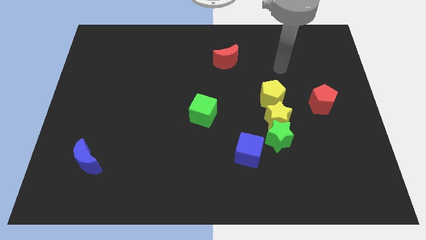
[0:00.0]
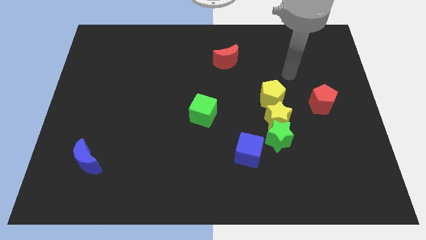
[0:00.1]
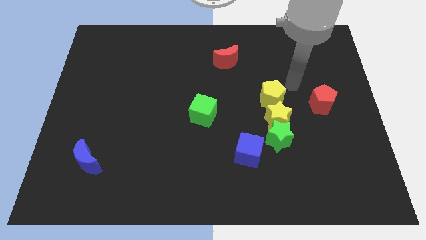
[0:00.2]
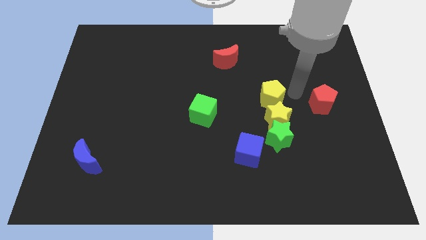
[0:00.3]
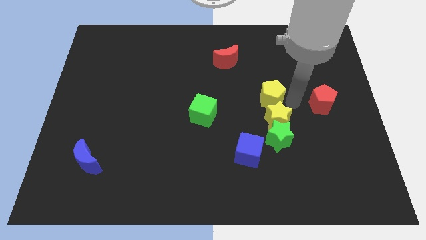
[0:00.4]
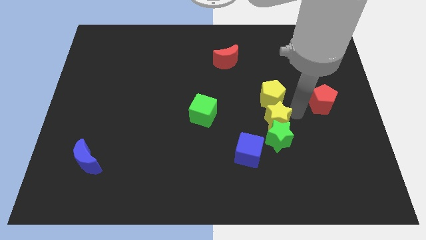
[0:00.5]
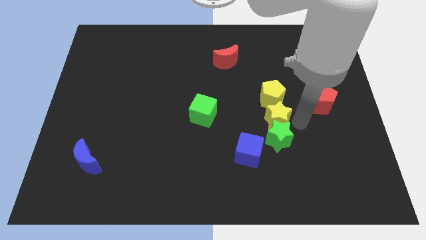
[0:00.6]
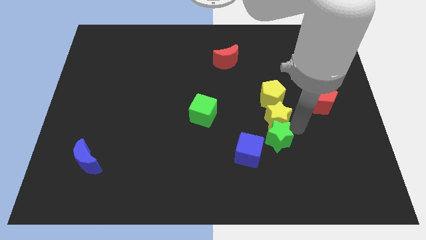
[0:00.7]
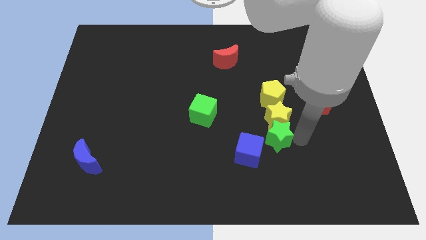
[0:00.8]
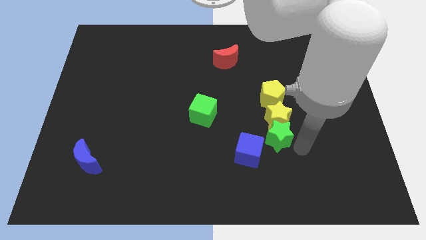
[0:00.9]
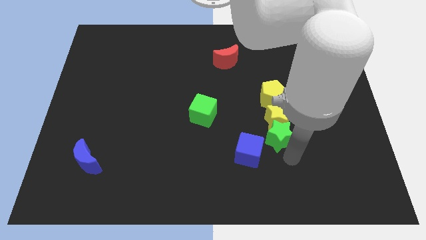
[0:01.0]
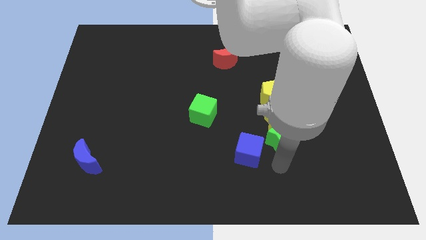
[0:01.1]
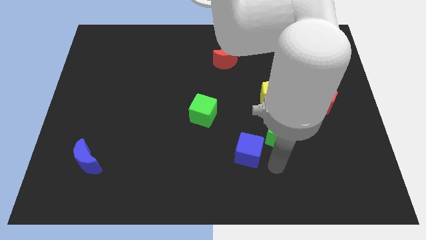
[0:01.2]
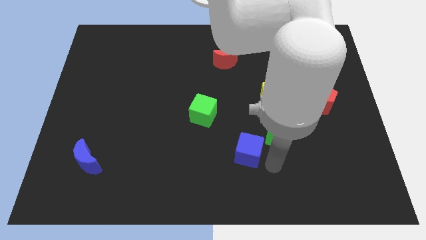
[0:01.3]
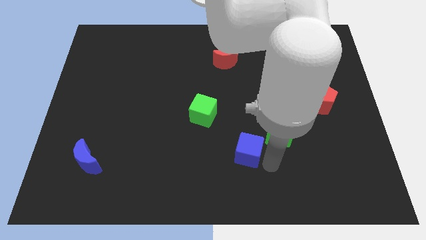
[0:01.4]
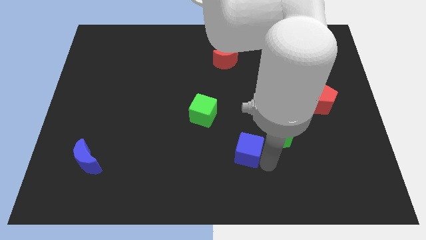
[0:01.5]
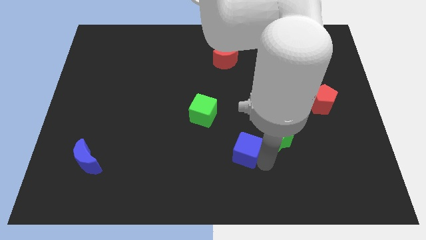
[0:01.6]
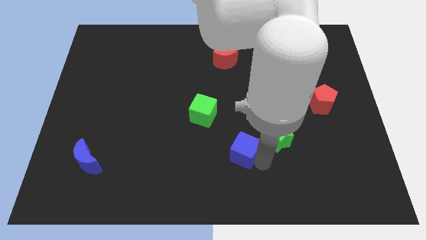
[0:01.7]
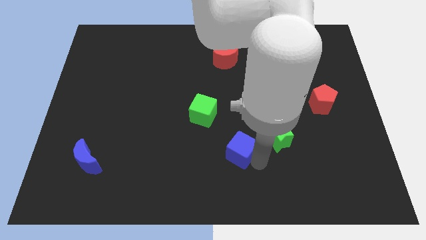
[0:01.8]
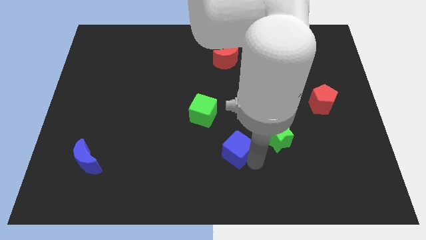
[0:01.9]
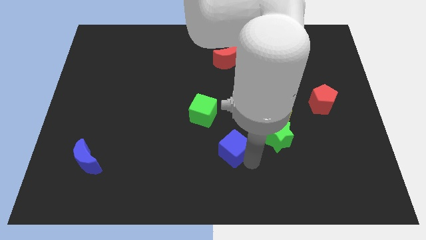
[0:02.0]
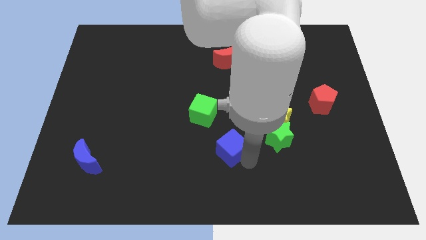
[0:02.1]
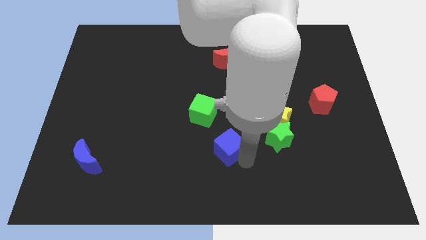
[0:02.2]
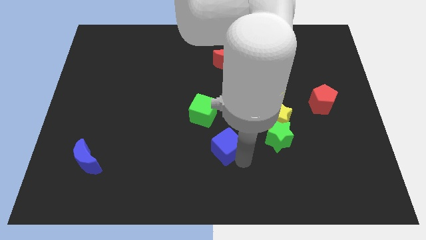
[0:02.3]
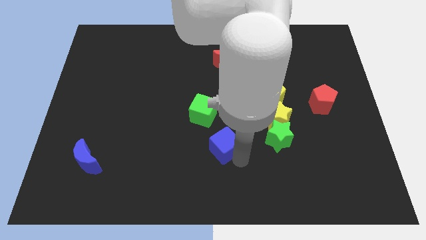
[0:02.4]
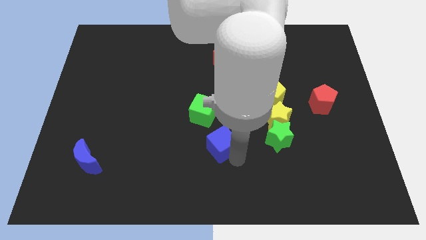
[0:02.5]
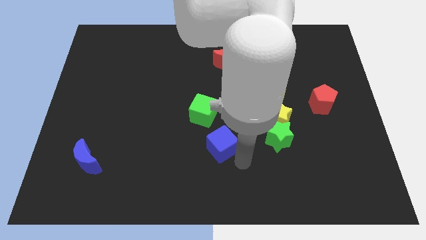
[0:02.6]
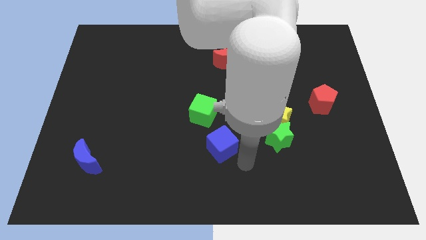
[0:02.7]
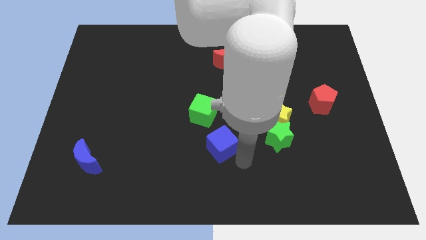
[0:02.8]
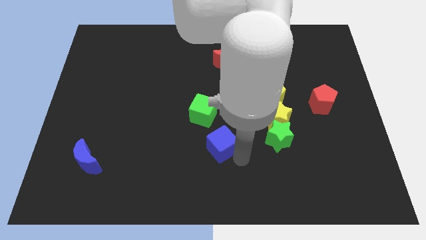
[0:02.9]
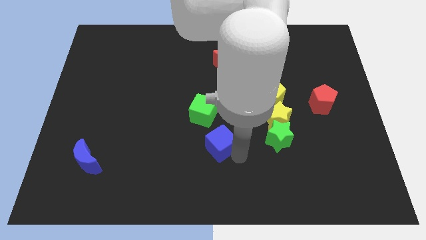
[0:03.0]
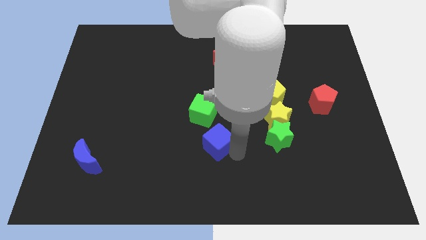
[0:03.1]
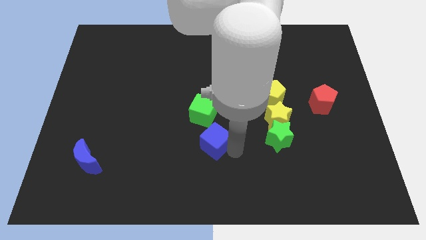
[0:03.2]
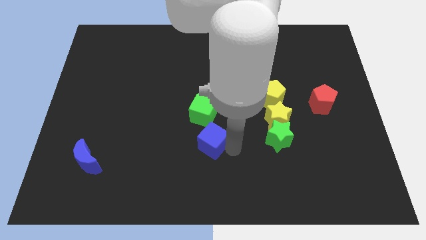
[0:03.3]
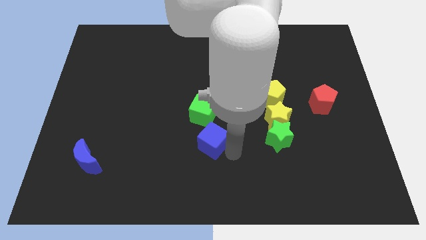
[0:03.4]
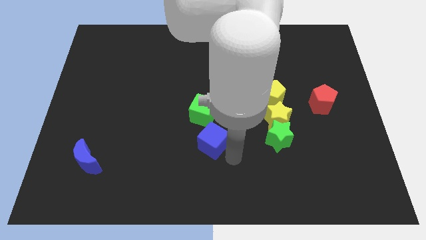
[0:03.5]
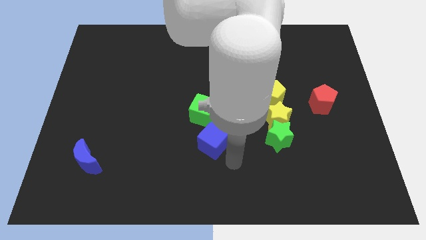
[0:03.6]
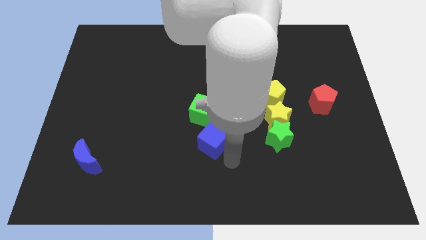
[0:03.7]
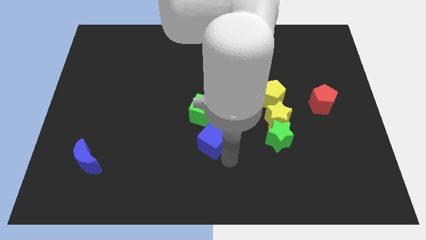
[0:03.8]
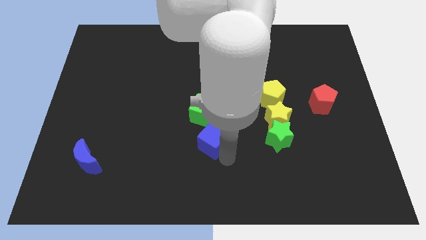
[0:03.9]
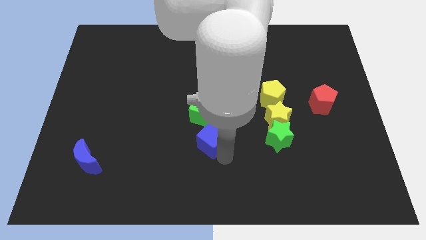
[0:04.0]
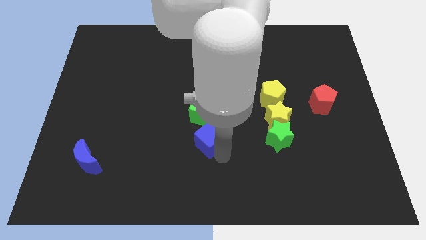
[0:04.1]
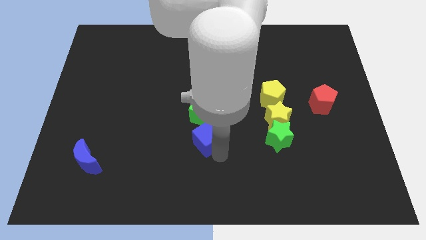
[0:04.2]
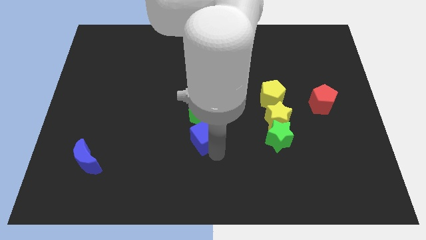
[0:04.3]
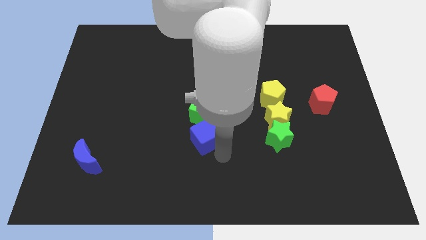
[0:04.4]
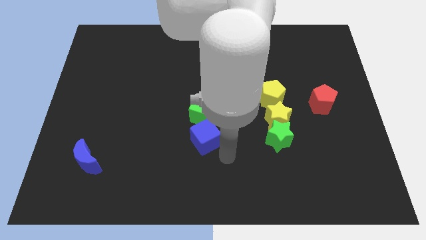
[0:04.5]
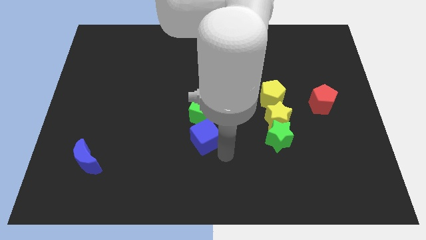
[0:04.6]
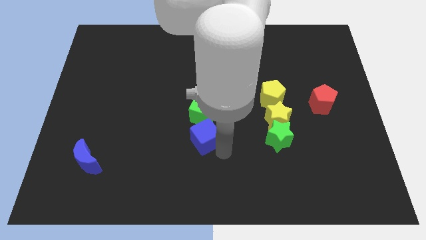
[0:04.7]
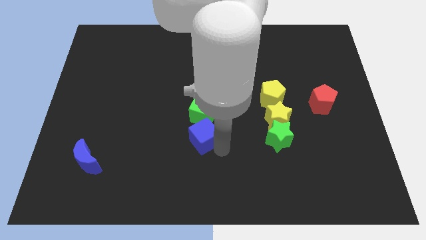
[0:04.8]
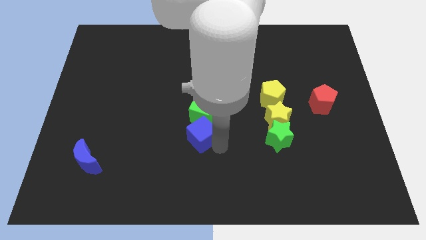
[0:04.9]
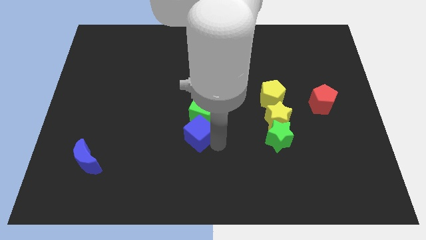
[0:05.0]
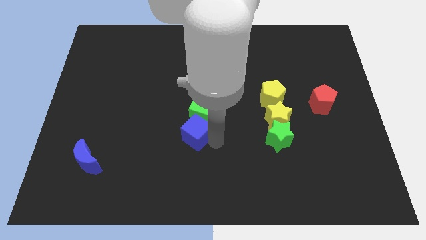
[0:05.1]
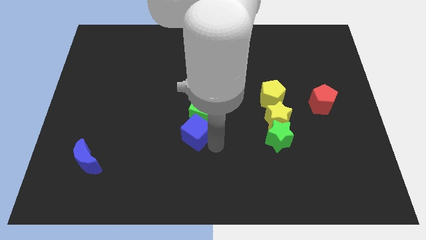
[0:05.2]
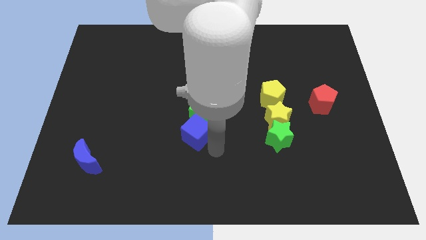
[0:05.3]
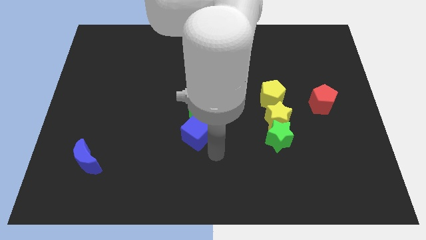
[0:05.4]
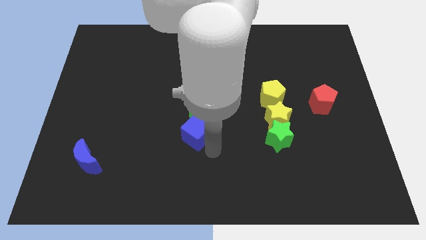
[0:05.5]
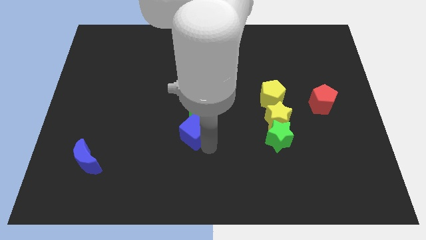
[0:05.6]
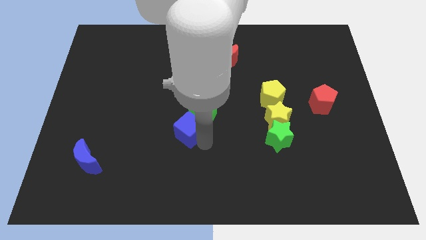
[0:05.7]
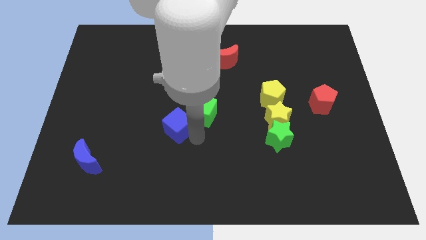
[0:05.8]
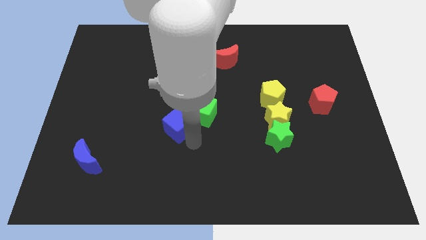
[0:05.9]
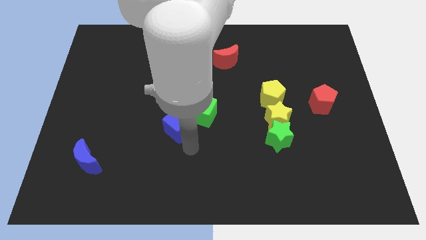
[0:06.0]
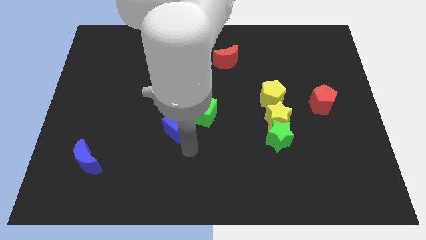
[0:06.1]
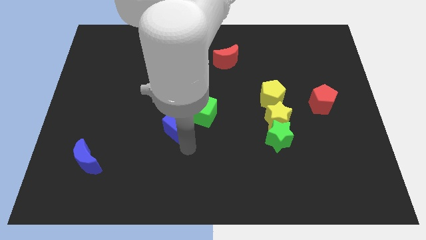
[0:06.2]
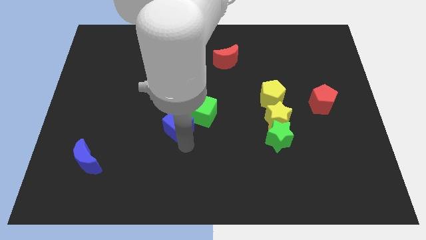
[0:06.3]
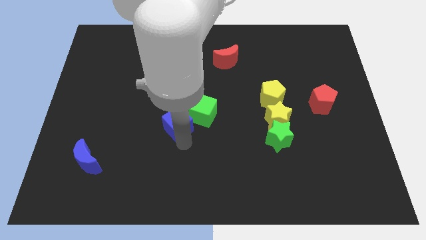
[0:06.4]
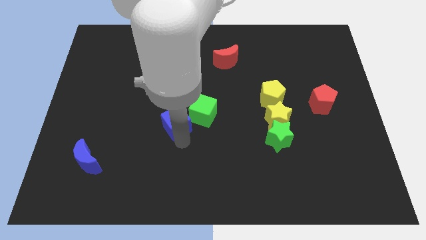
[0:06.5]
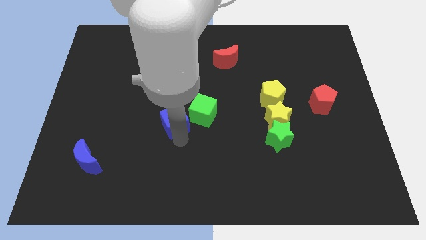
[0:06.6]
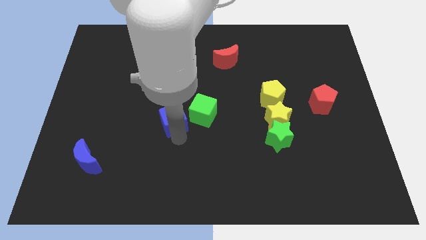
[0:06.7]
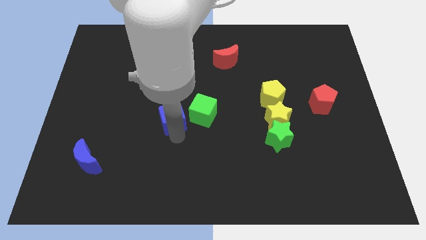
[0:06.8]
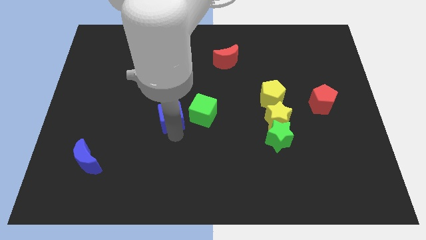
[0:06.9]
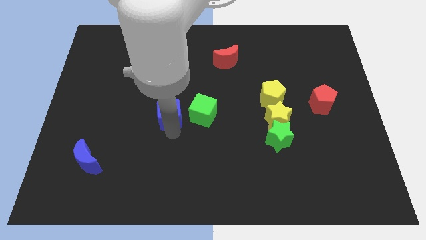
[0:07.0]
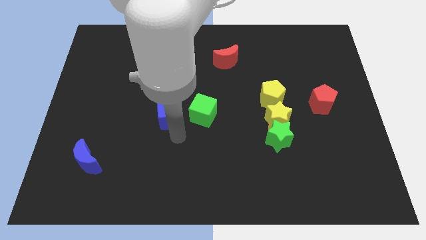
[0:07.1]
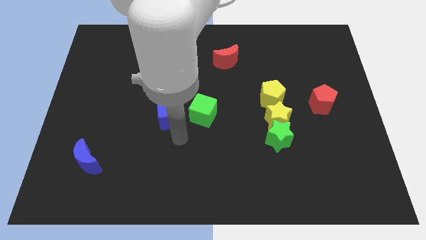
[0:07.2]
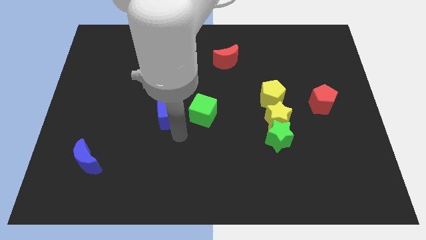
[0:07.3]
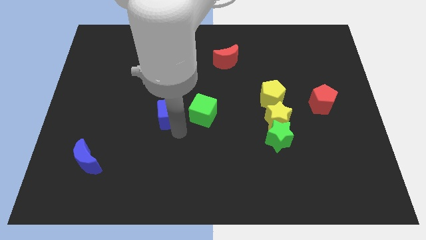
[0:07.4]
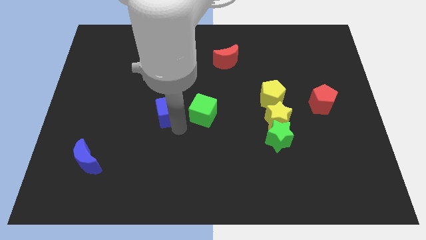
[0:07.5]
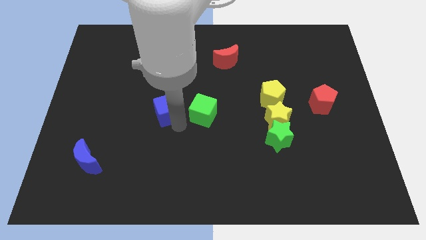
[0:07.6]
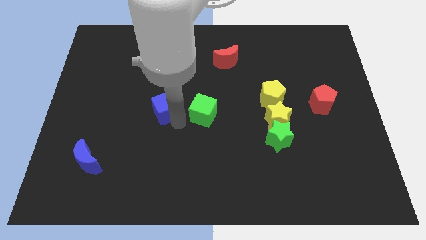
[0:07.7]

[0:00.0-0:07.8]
push the blue cube upwards and to the left diagonally
